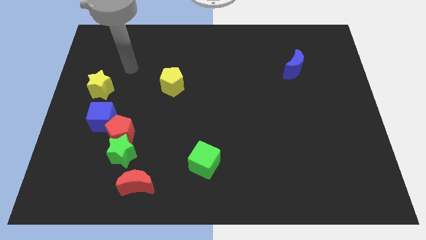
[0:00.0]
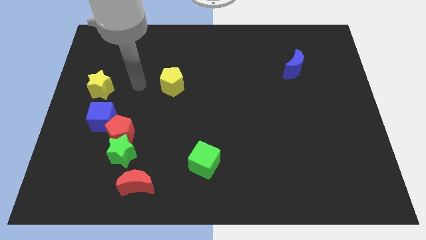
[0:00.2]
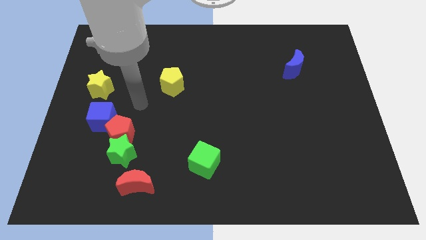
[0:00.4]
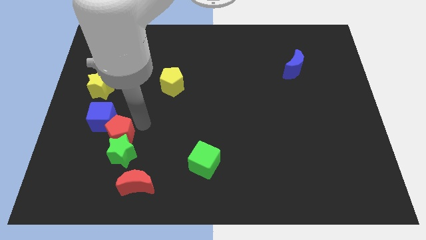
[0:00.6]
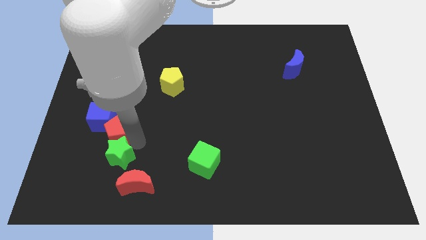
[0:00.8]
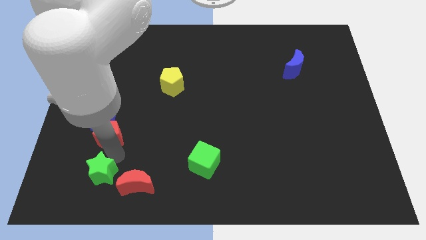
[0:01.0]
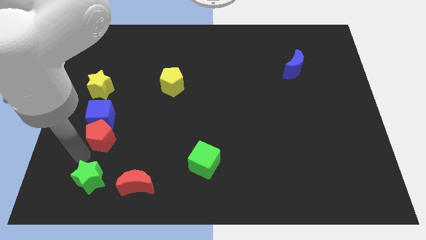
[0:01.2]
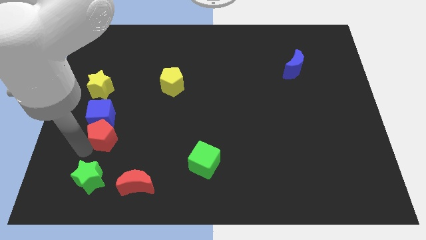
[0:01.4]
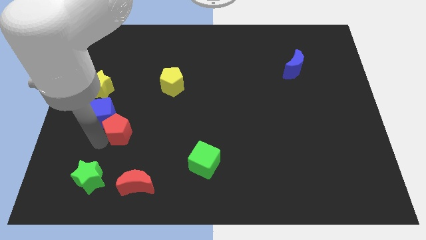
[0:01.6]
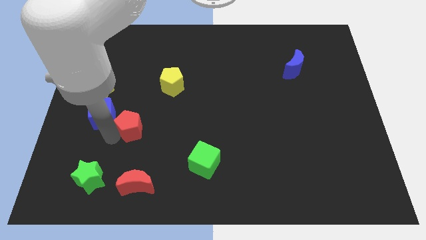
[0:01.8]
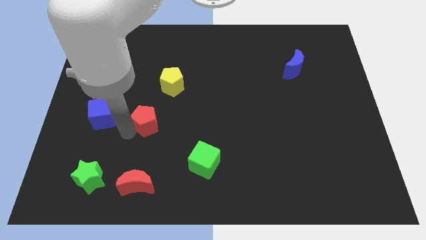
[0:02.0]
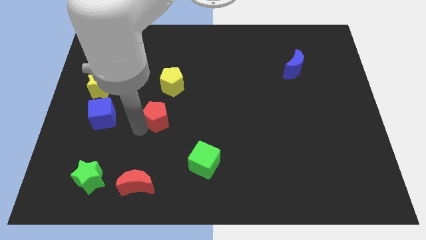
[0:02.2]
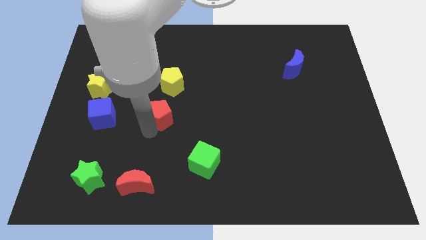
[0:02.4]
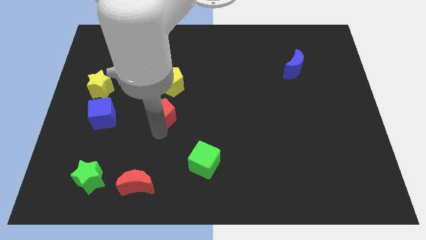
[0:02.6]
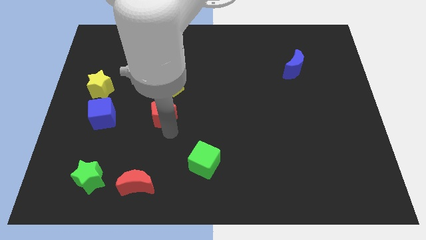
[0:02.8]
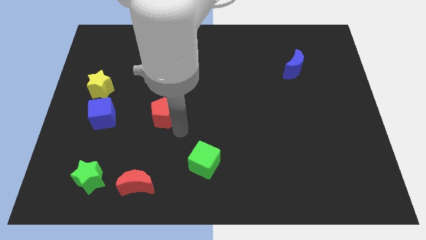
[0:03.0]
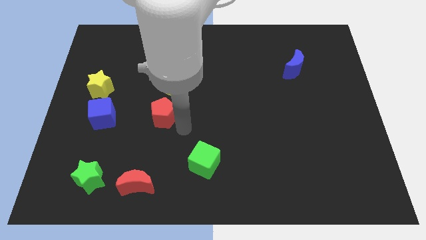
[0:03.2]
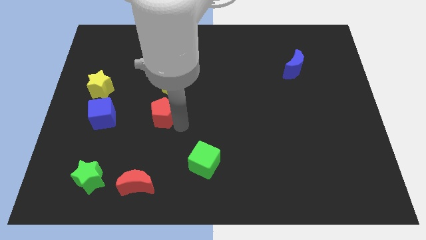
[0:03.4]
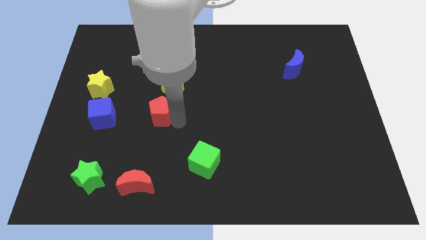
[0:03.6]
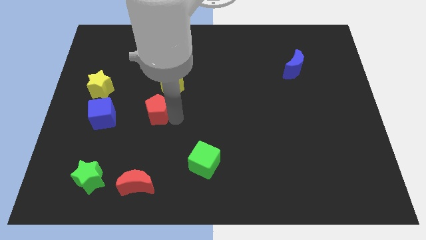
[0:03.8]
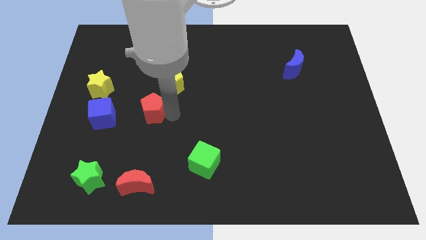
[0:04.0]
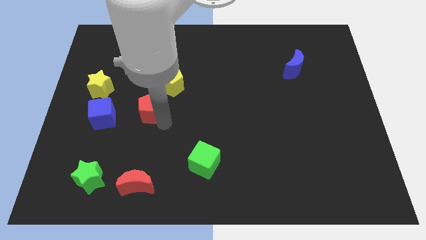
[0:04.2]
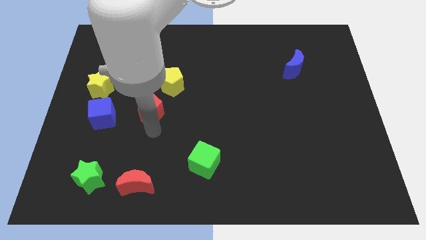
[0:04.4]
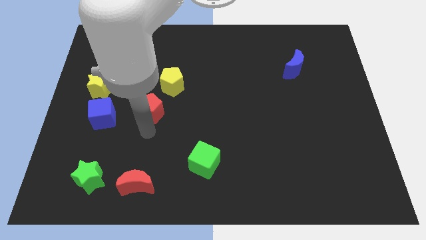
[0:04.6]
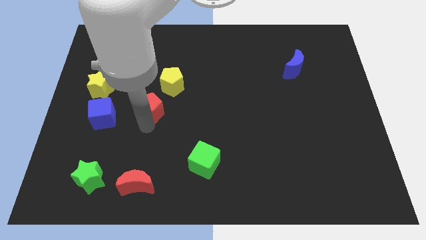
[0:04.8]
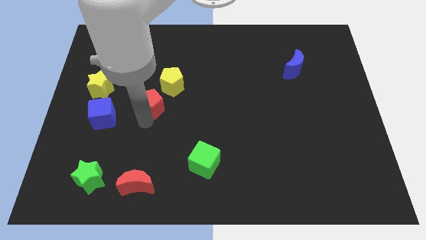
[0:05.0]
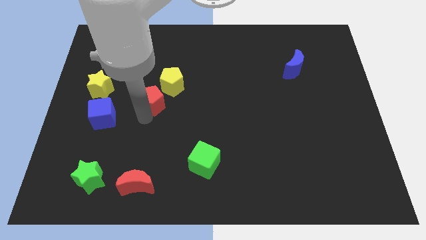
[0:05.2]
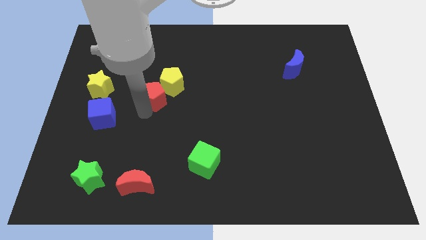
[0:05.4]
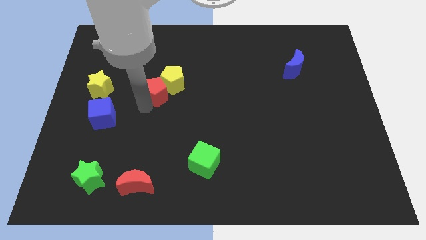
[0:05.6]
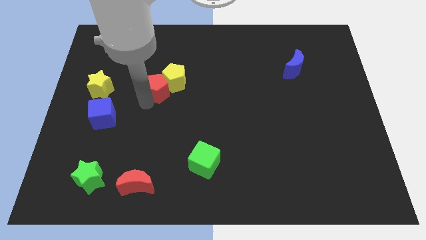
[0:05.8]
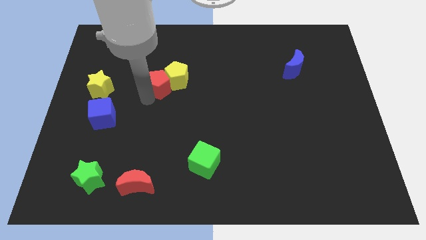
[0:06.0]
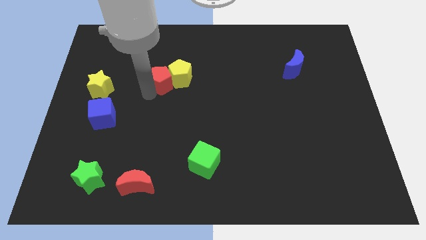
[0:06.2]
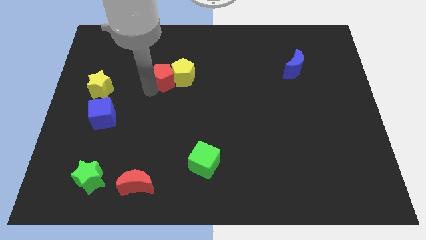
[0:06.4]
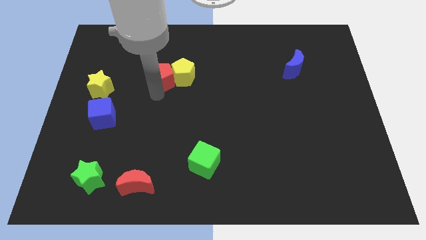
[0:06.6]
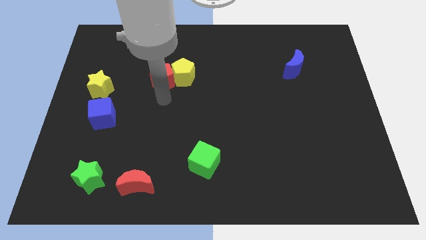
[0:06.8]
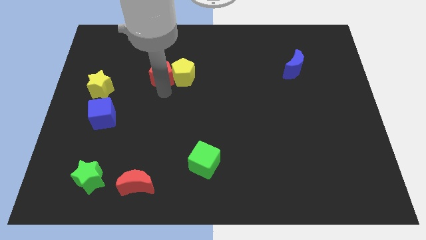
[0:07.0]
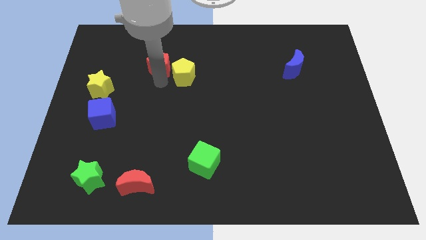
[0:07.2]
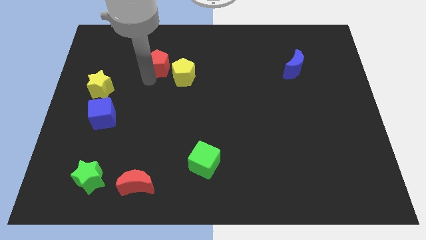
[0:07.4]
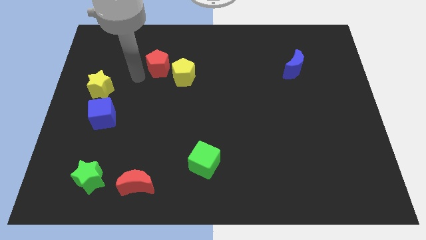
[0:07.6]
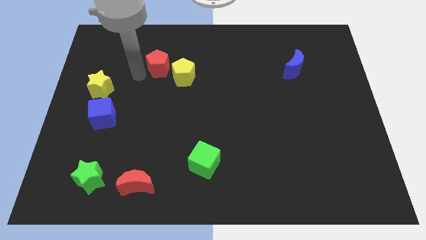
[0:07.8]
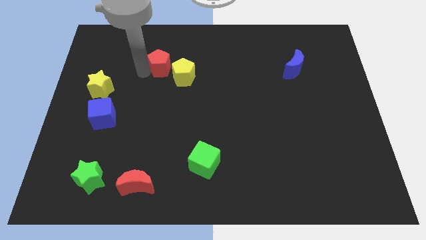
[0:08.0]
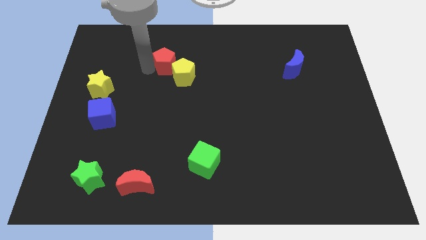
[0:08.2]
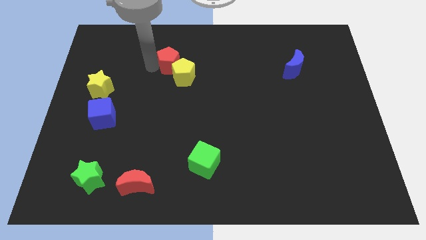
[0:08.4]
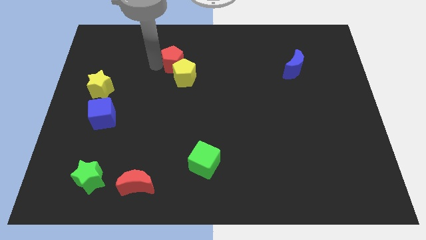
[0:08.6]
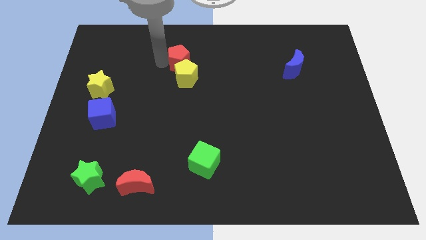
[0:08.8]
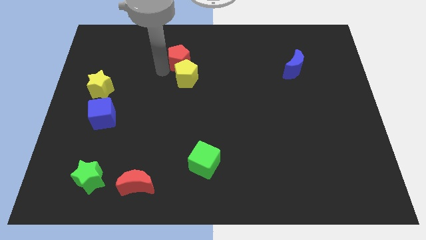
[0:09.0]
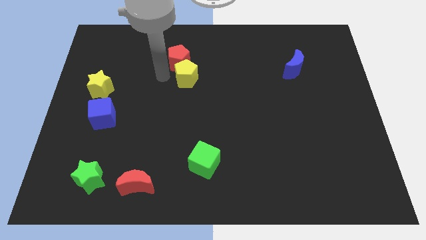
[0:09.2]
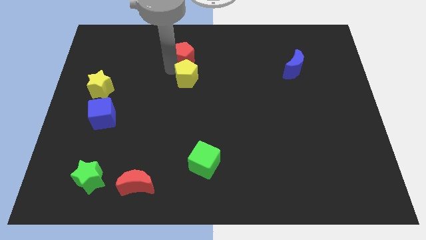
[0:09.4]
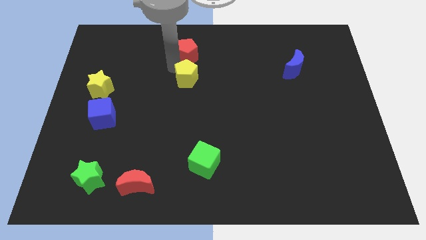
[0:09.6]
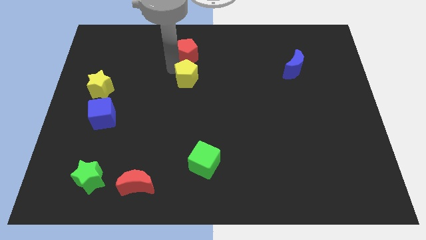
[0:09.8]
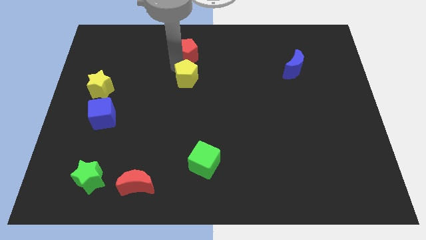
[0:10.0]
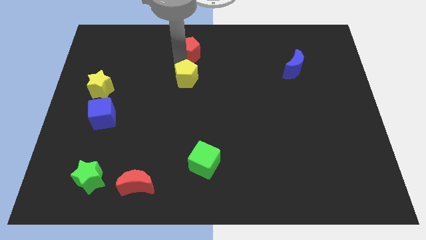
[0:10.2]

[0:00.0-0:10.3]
put the red pentagon to the towards your base
